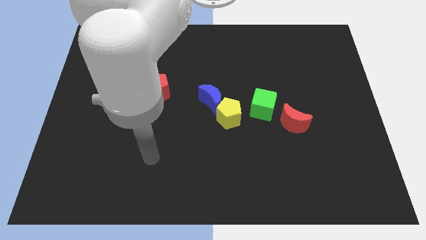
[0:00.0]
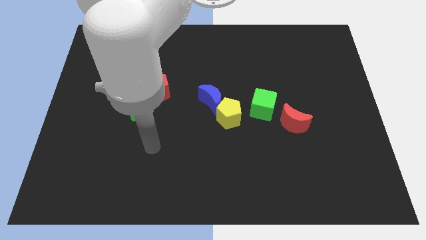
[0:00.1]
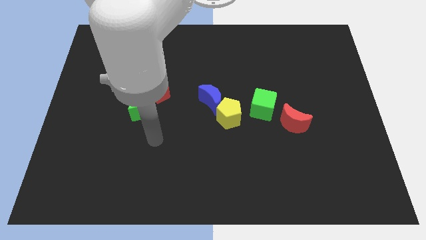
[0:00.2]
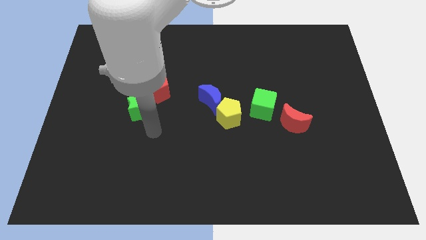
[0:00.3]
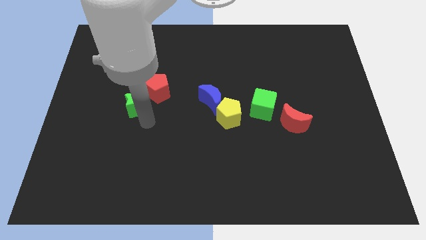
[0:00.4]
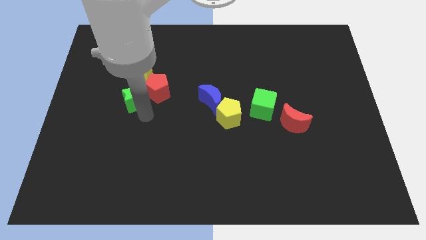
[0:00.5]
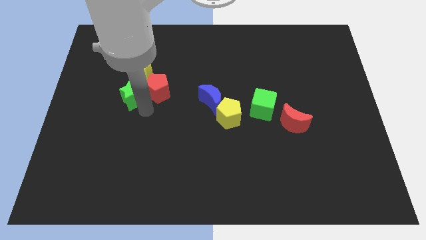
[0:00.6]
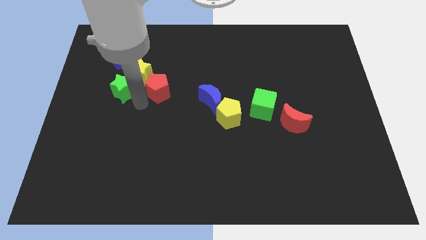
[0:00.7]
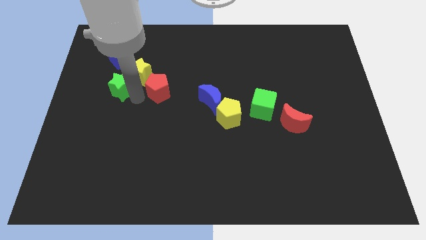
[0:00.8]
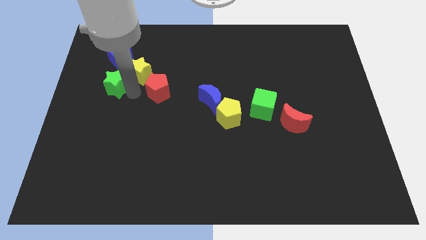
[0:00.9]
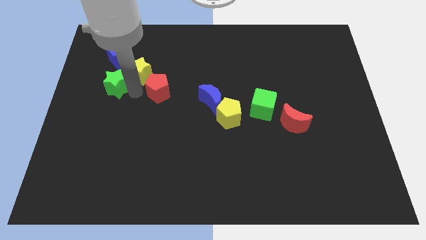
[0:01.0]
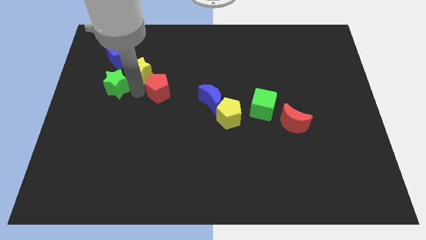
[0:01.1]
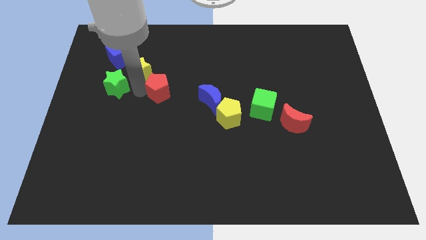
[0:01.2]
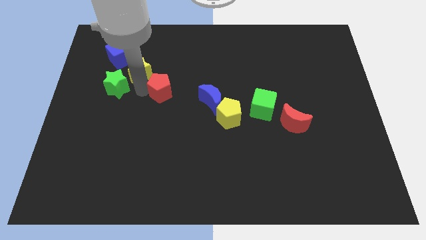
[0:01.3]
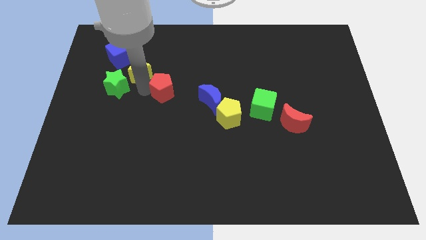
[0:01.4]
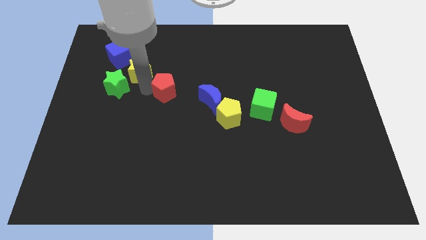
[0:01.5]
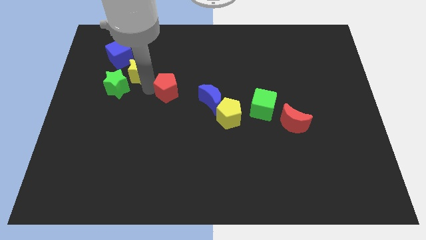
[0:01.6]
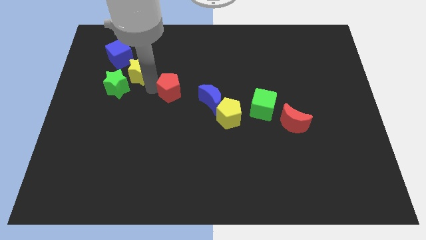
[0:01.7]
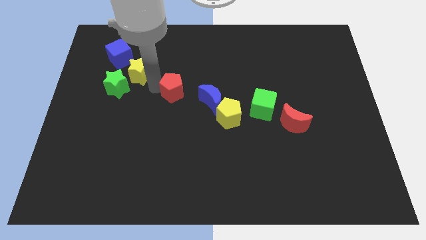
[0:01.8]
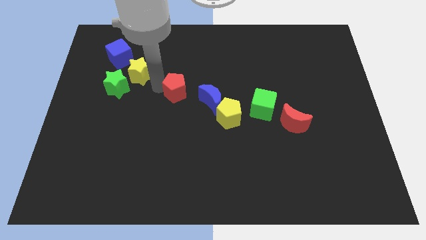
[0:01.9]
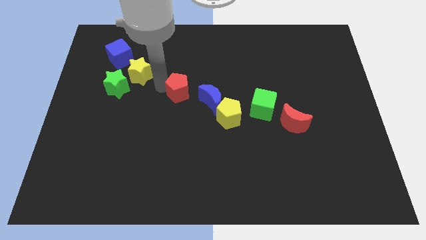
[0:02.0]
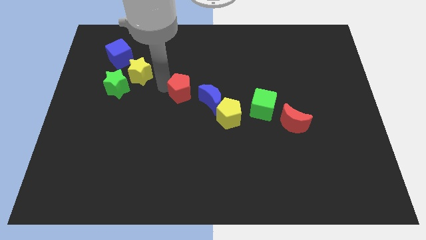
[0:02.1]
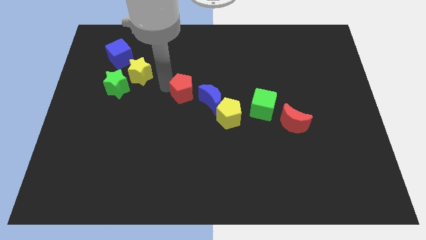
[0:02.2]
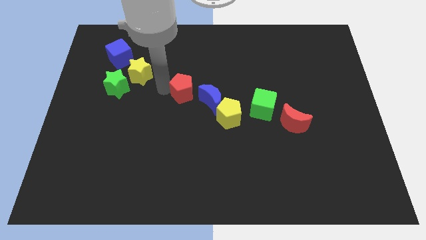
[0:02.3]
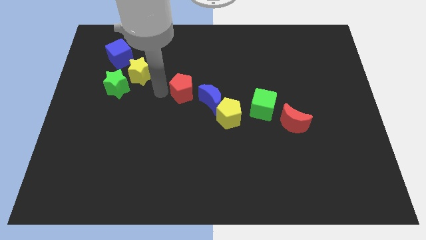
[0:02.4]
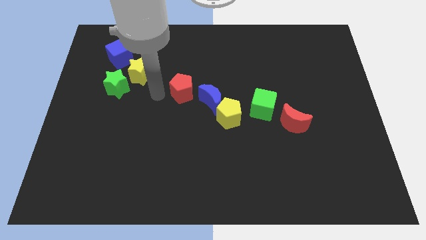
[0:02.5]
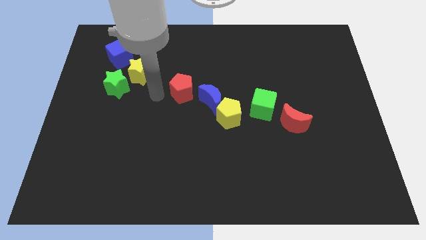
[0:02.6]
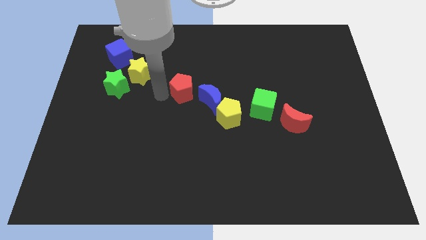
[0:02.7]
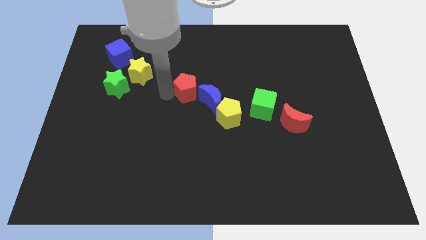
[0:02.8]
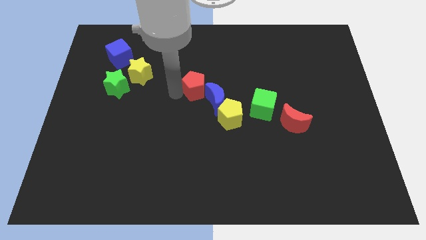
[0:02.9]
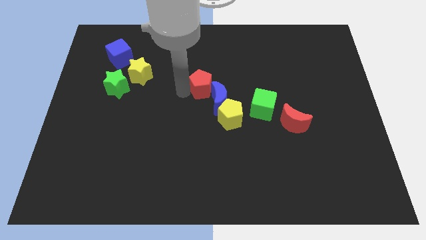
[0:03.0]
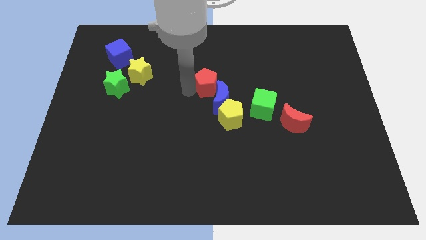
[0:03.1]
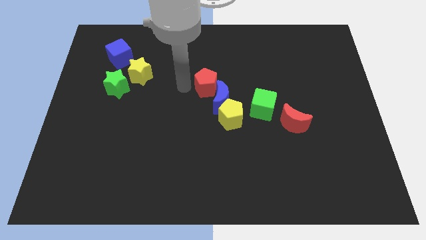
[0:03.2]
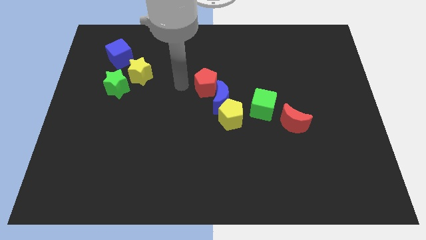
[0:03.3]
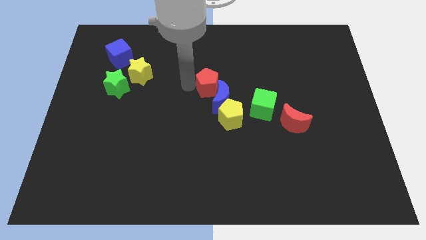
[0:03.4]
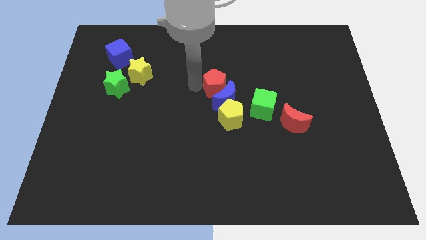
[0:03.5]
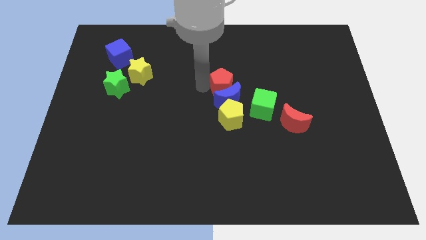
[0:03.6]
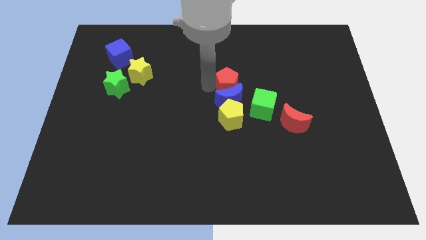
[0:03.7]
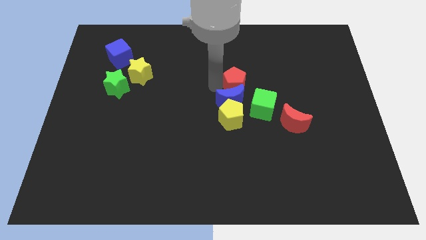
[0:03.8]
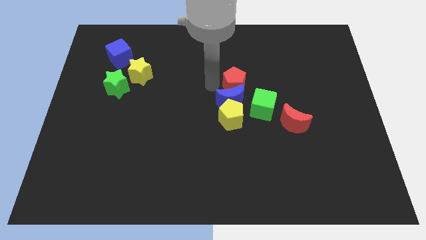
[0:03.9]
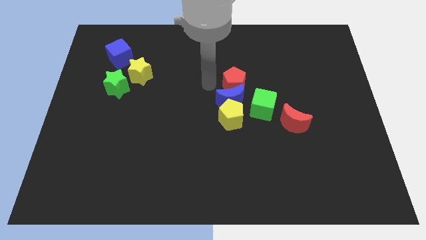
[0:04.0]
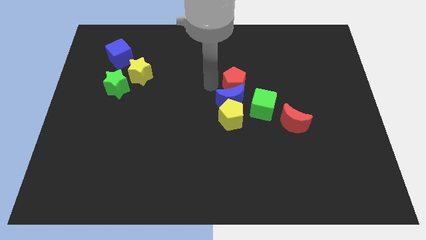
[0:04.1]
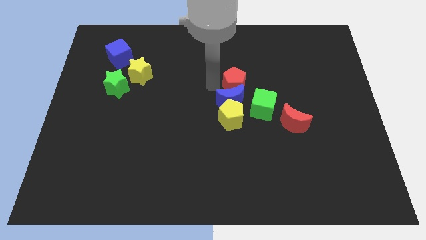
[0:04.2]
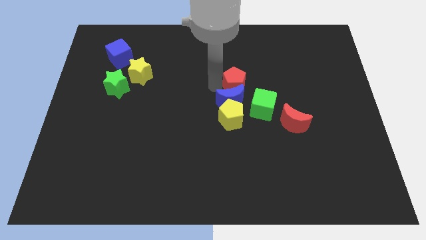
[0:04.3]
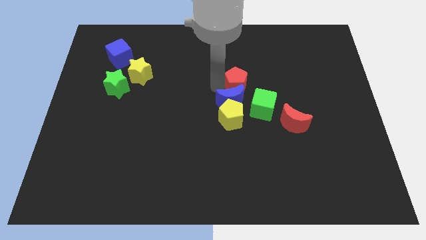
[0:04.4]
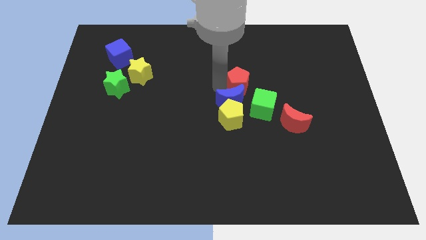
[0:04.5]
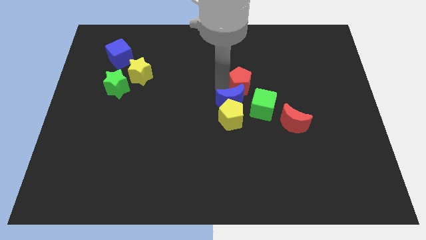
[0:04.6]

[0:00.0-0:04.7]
move the red pentagon right

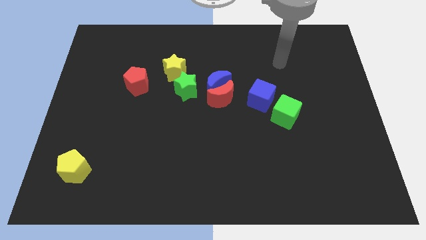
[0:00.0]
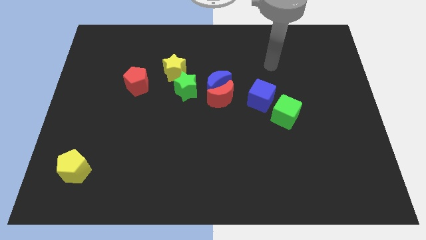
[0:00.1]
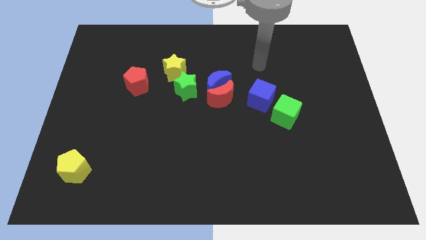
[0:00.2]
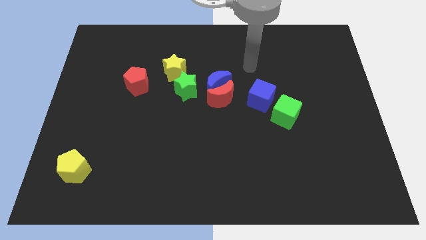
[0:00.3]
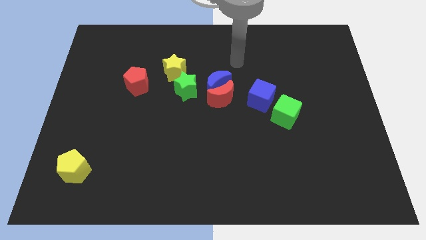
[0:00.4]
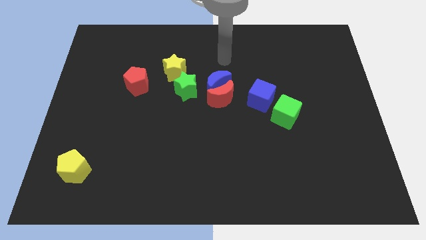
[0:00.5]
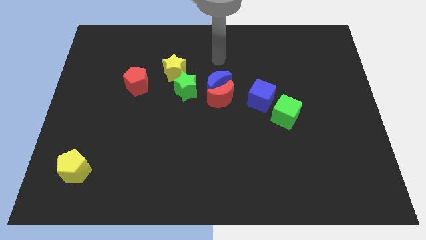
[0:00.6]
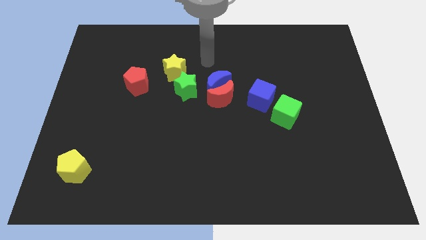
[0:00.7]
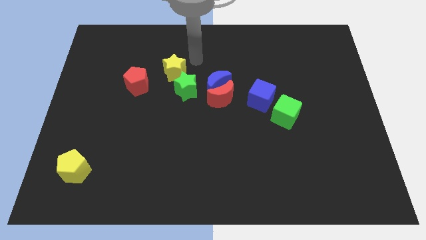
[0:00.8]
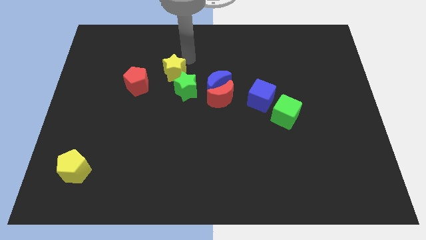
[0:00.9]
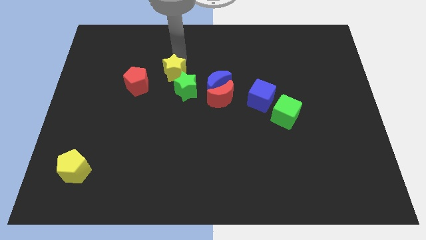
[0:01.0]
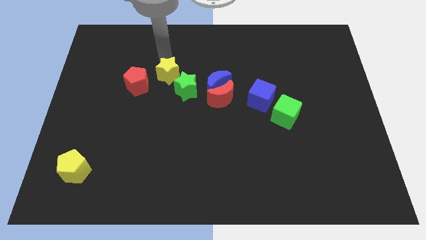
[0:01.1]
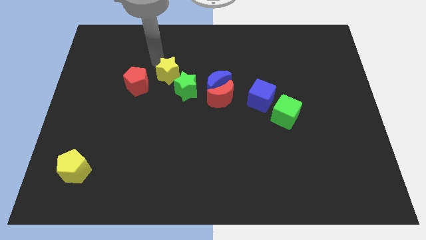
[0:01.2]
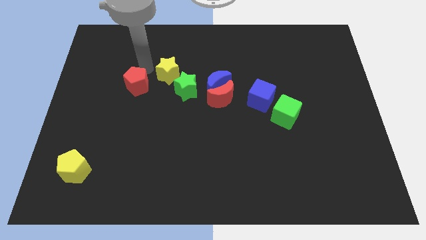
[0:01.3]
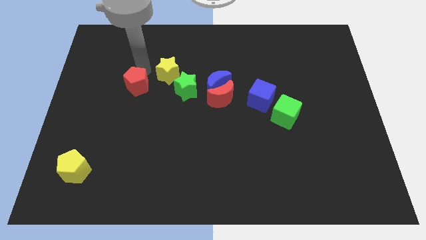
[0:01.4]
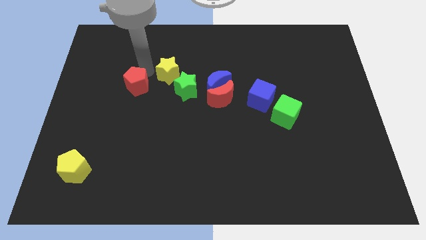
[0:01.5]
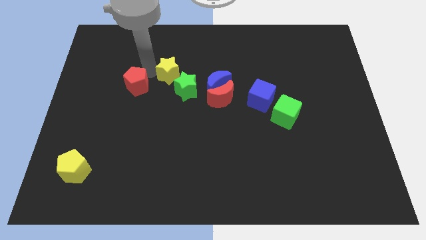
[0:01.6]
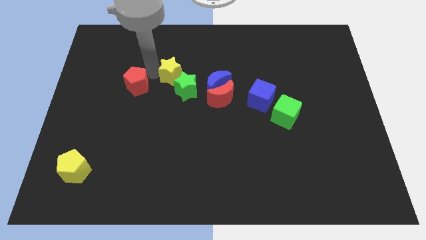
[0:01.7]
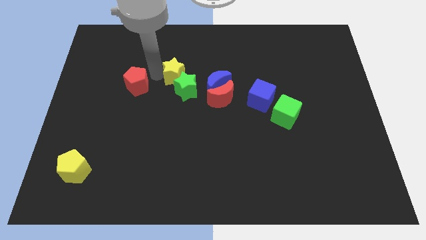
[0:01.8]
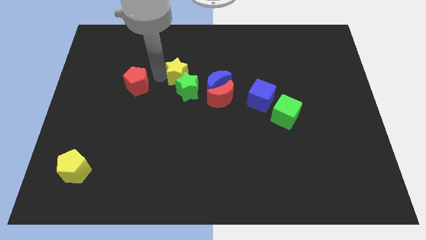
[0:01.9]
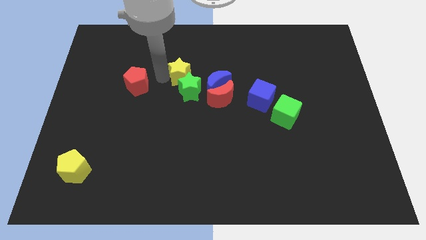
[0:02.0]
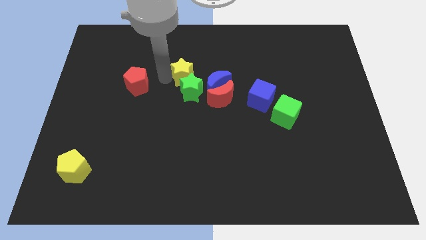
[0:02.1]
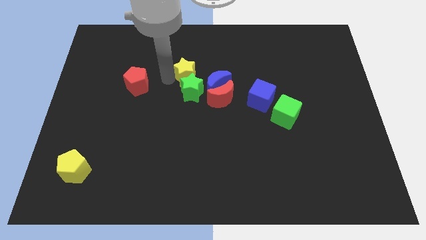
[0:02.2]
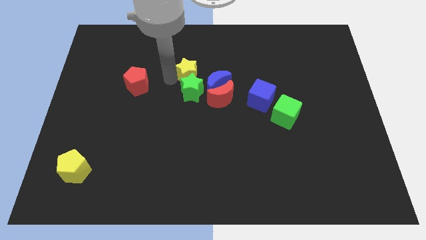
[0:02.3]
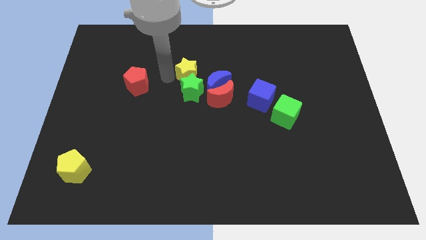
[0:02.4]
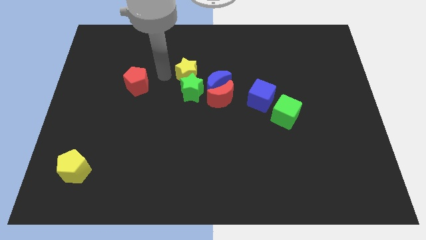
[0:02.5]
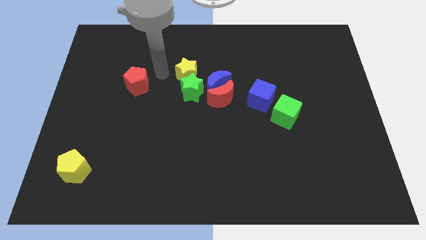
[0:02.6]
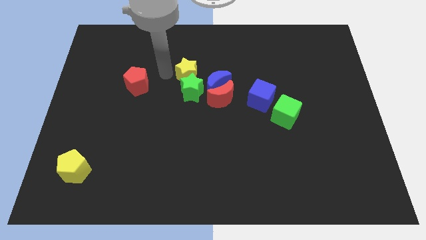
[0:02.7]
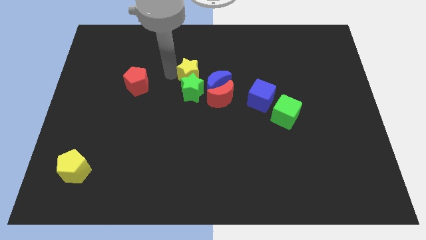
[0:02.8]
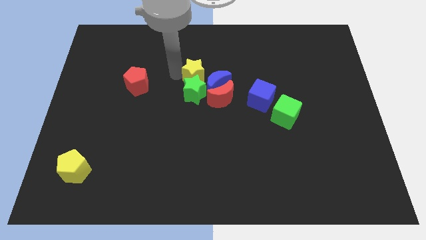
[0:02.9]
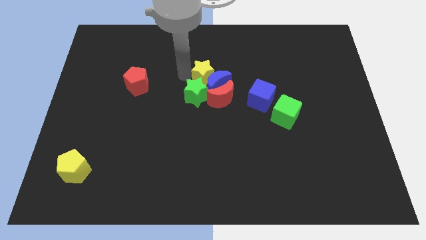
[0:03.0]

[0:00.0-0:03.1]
move the yellow star a bit to the right
